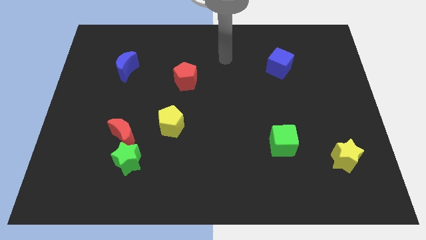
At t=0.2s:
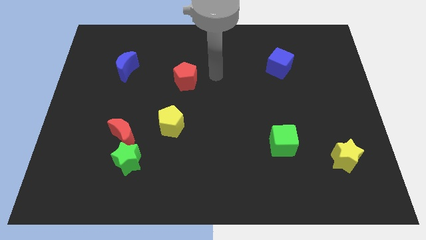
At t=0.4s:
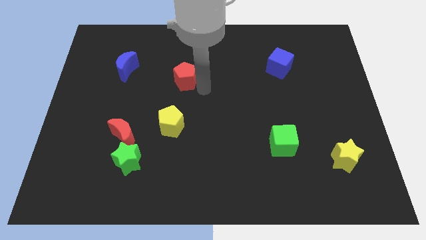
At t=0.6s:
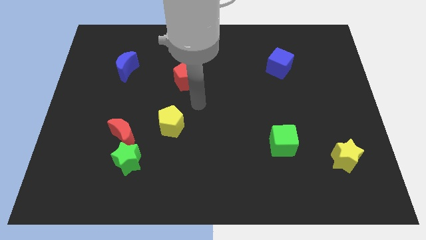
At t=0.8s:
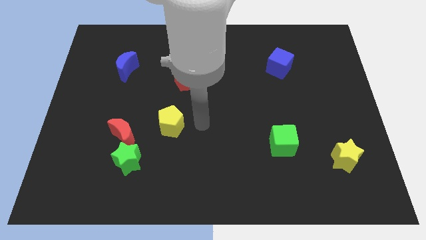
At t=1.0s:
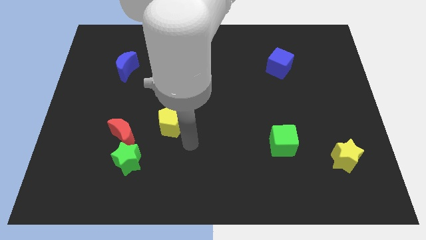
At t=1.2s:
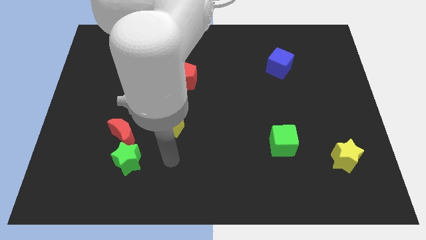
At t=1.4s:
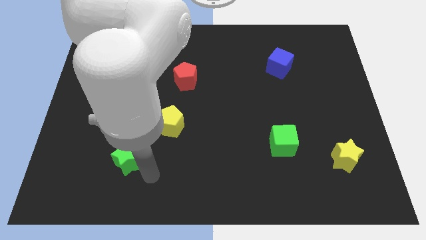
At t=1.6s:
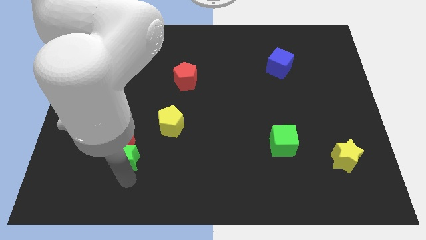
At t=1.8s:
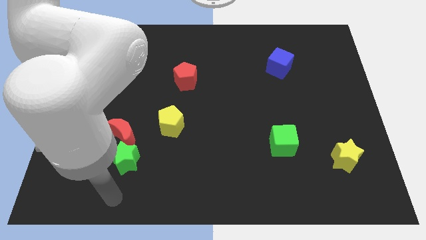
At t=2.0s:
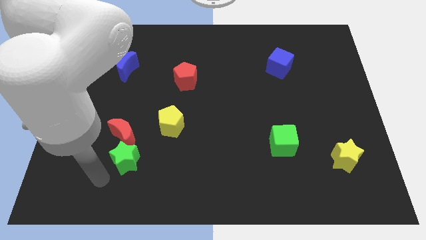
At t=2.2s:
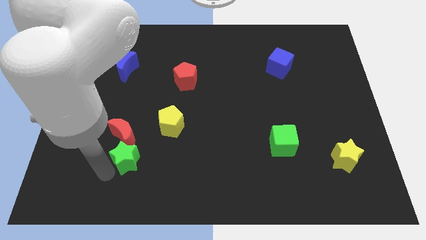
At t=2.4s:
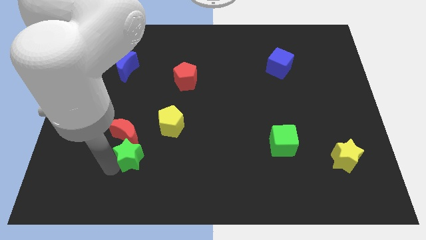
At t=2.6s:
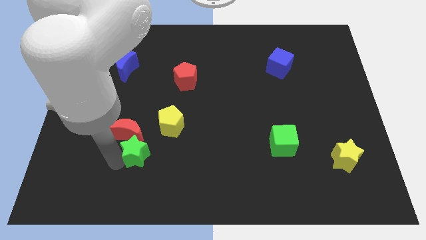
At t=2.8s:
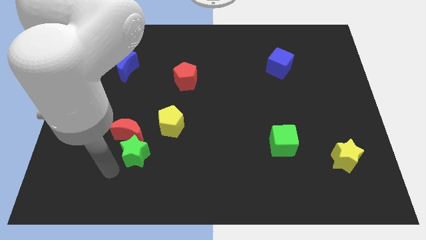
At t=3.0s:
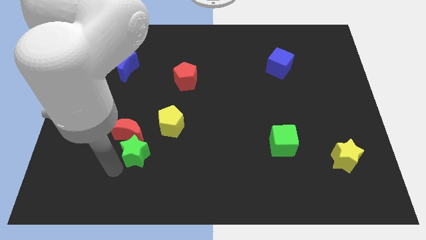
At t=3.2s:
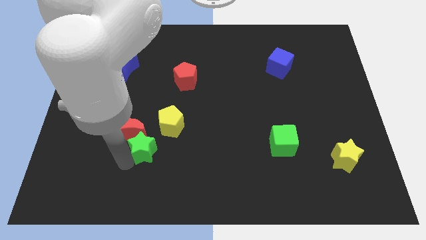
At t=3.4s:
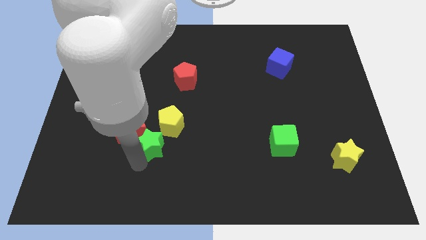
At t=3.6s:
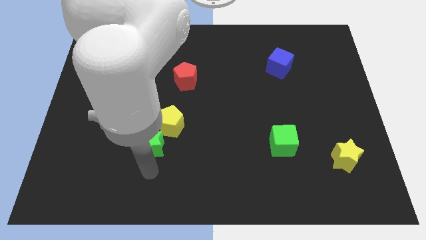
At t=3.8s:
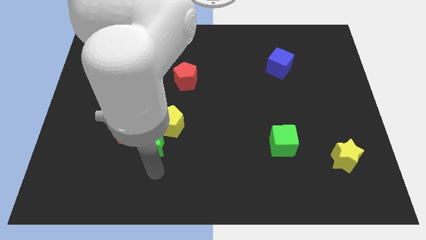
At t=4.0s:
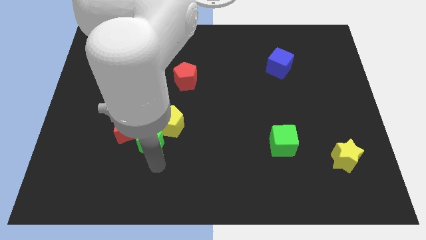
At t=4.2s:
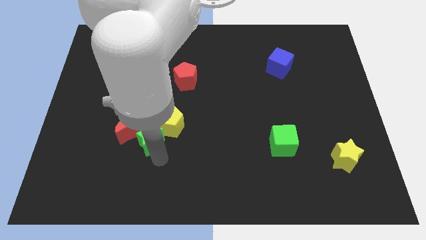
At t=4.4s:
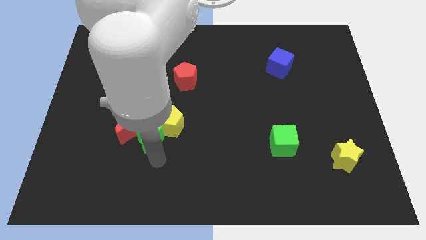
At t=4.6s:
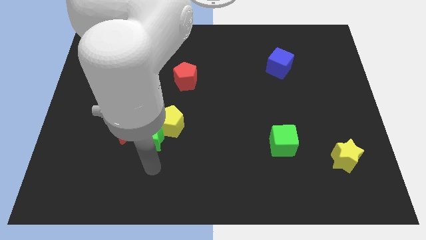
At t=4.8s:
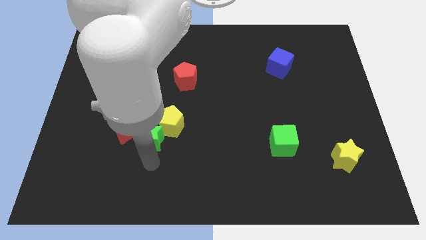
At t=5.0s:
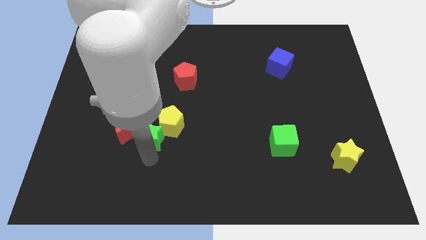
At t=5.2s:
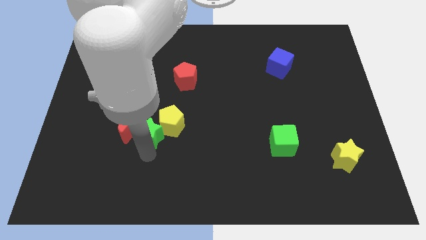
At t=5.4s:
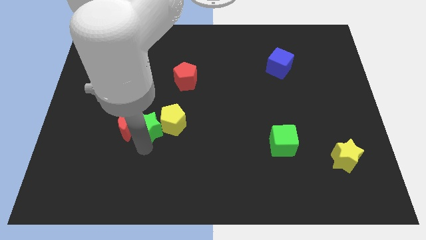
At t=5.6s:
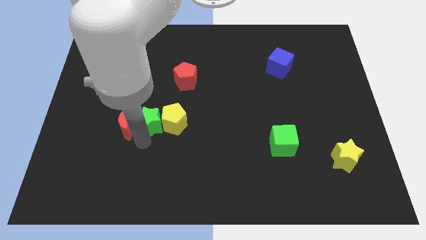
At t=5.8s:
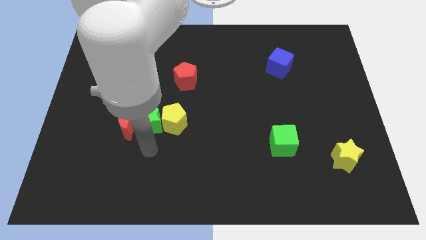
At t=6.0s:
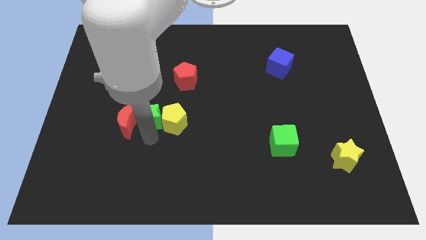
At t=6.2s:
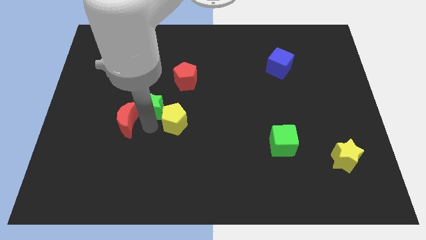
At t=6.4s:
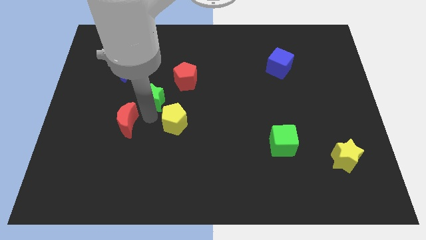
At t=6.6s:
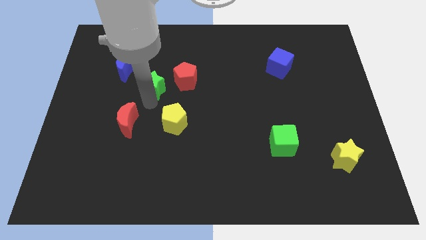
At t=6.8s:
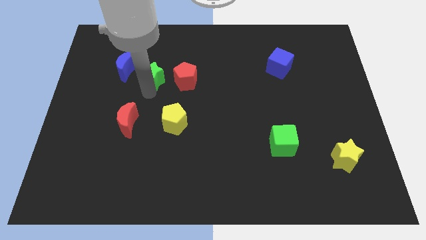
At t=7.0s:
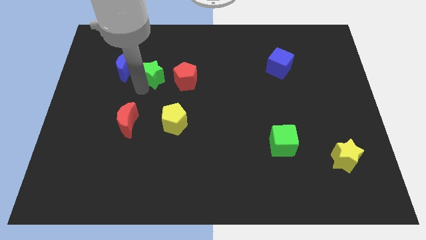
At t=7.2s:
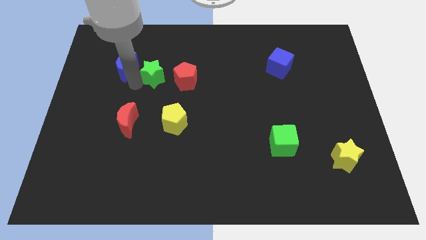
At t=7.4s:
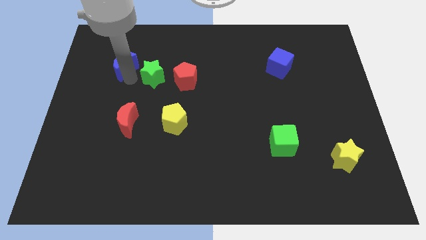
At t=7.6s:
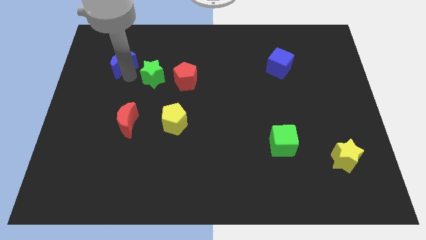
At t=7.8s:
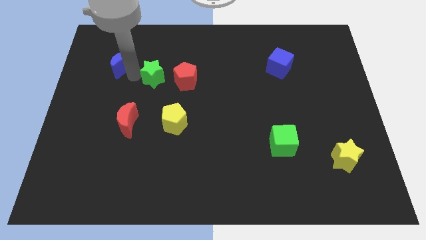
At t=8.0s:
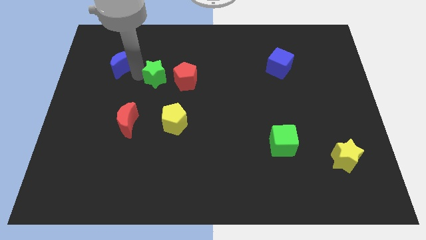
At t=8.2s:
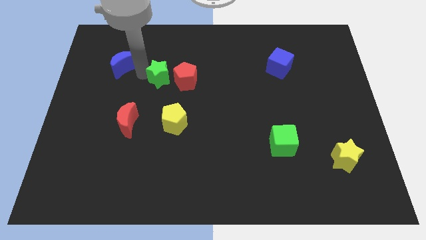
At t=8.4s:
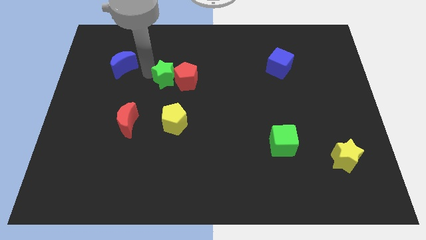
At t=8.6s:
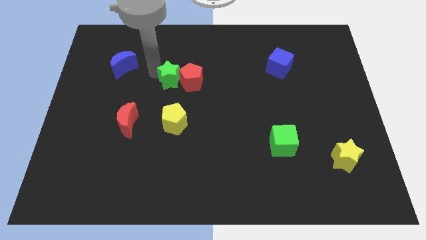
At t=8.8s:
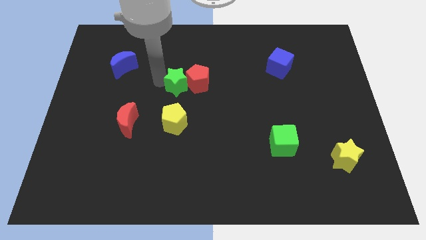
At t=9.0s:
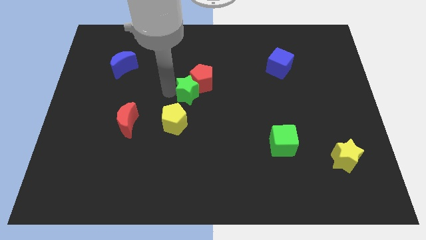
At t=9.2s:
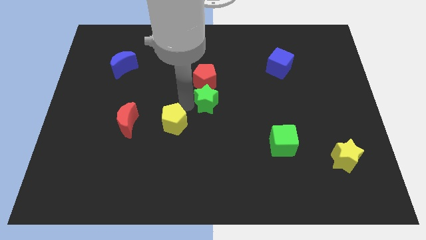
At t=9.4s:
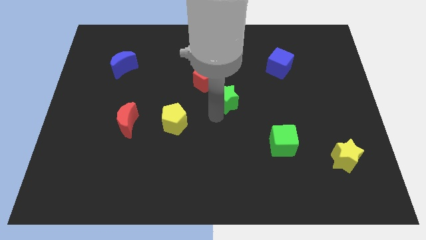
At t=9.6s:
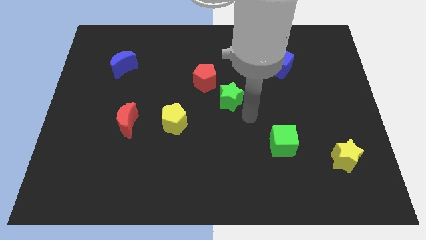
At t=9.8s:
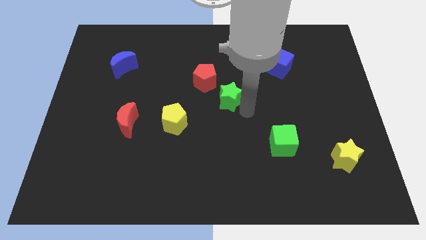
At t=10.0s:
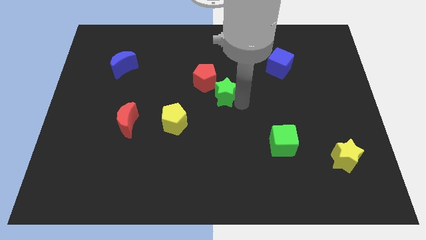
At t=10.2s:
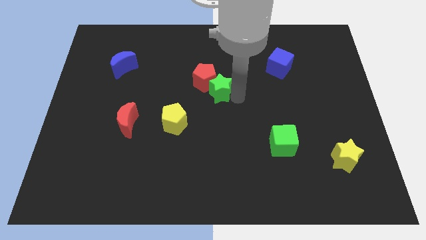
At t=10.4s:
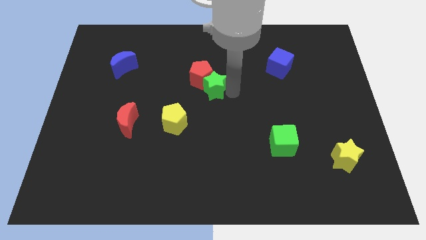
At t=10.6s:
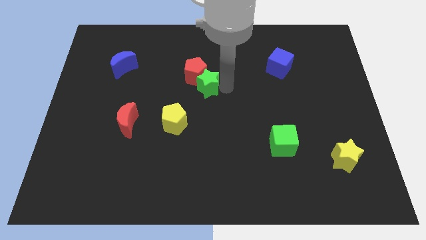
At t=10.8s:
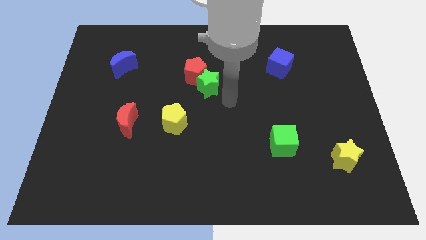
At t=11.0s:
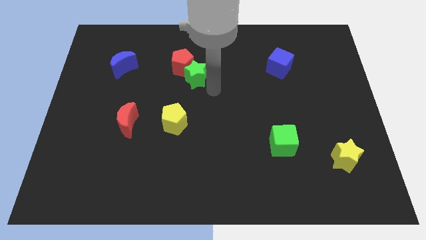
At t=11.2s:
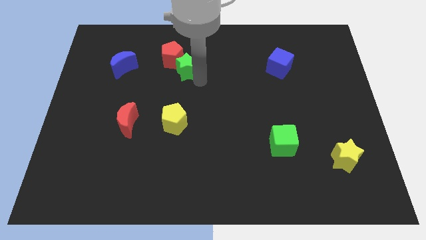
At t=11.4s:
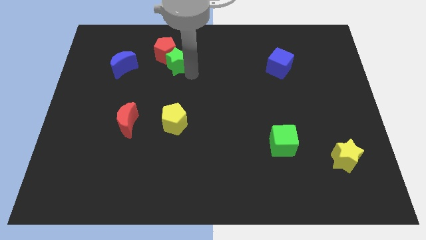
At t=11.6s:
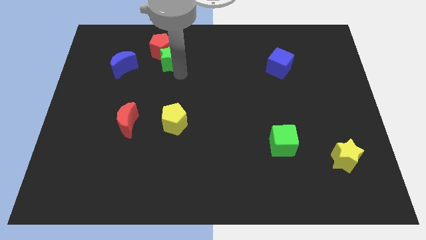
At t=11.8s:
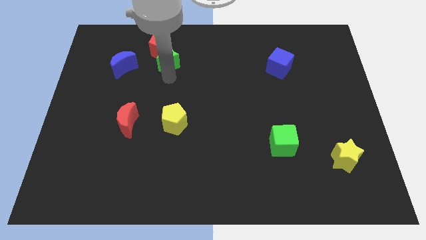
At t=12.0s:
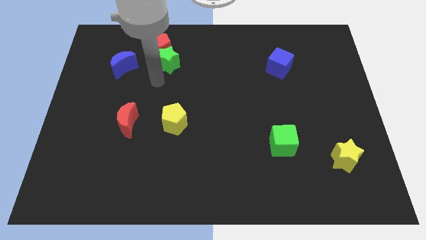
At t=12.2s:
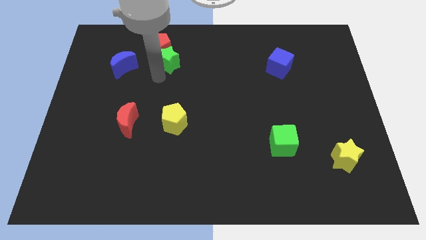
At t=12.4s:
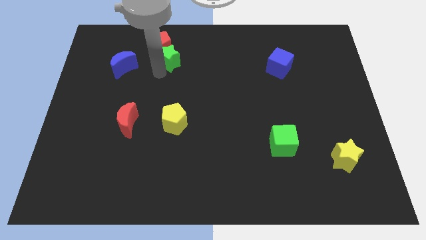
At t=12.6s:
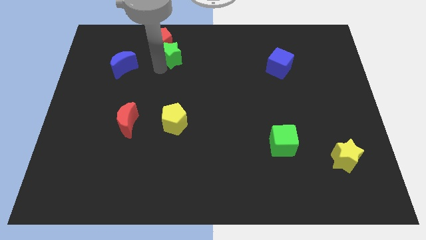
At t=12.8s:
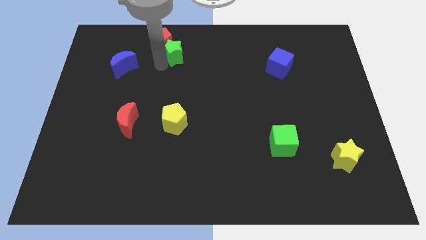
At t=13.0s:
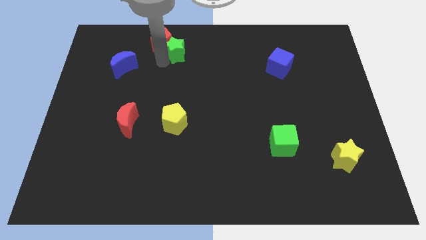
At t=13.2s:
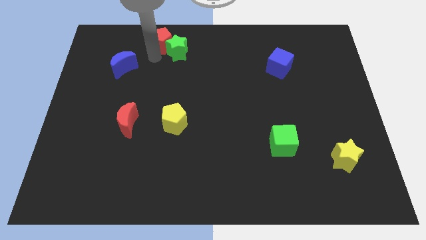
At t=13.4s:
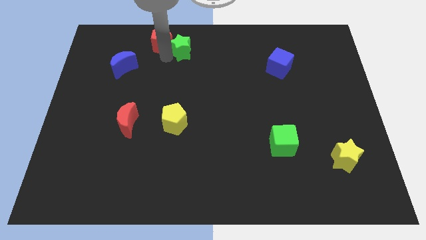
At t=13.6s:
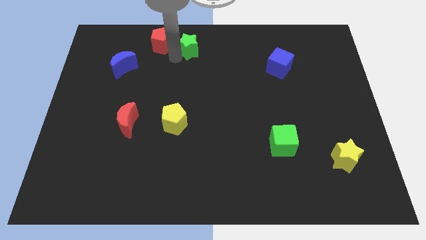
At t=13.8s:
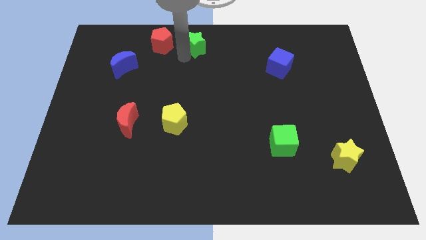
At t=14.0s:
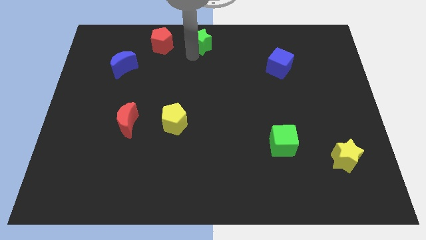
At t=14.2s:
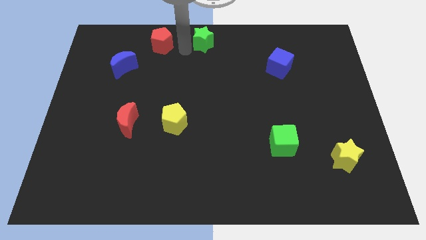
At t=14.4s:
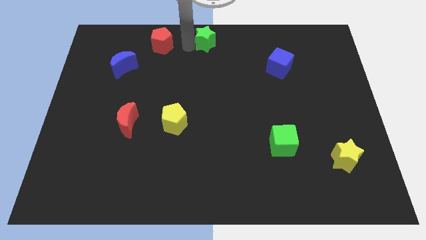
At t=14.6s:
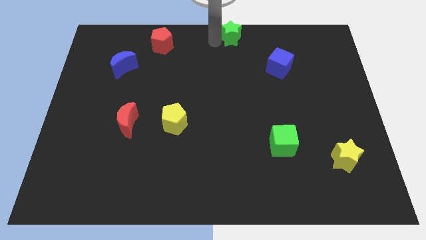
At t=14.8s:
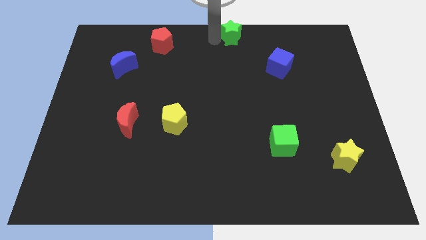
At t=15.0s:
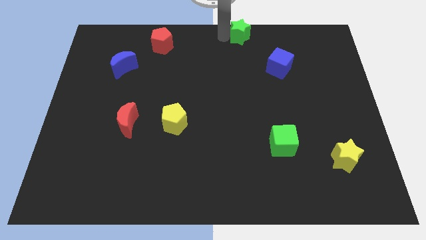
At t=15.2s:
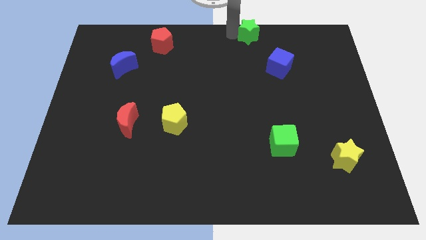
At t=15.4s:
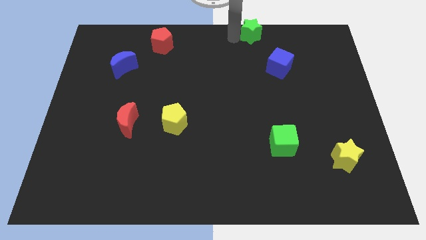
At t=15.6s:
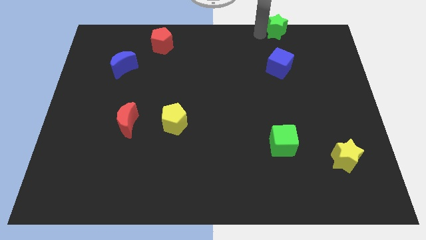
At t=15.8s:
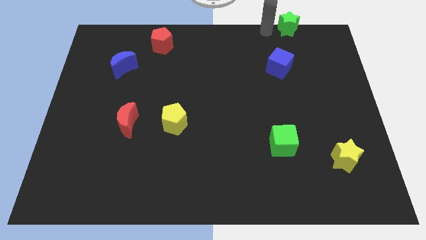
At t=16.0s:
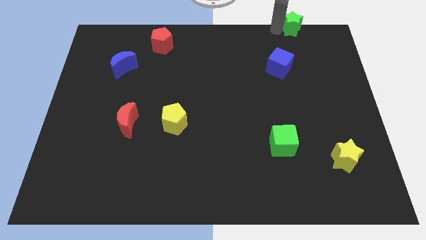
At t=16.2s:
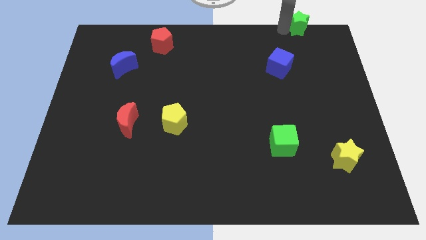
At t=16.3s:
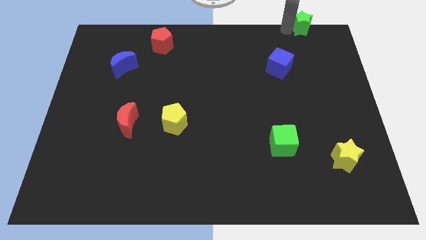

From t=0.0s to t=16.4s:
put the green star to the top right of the board
